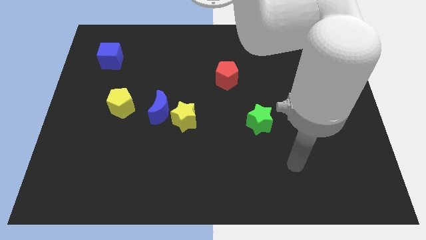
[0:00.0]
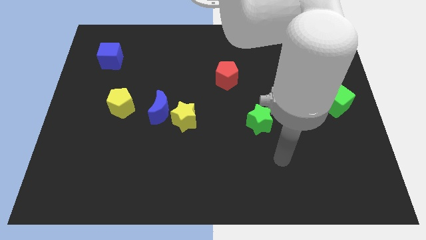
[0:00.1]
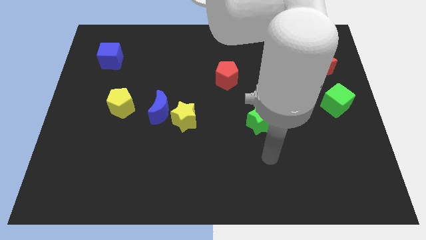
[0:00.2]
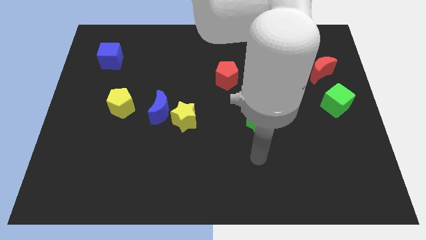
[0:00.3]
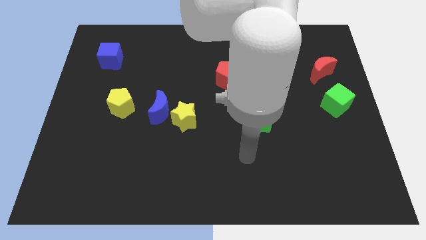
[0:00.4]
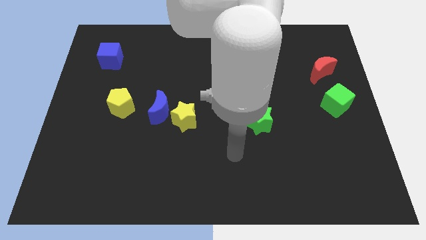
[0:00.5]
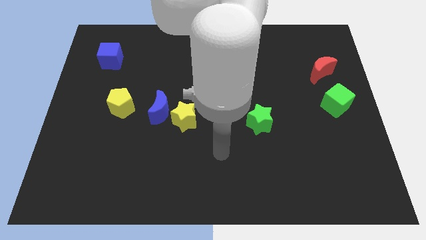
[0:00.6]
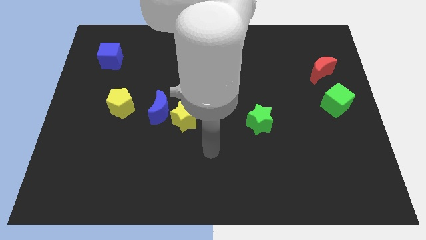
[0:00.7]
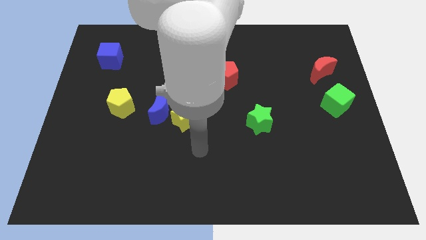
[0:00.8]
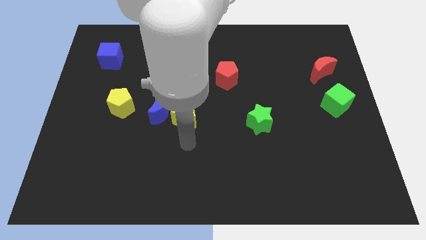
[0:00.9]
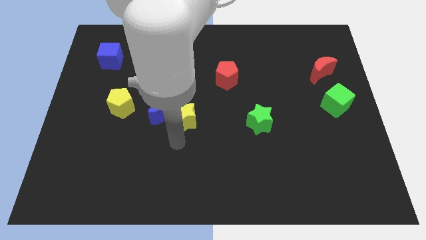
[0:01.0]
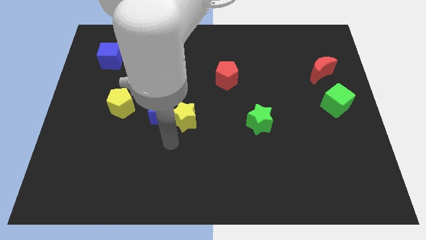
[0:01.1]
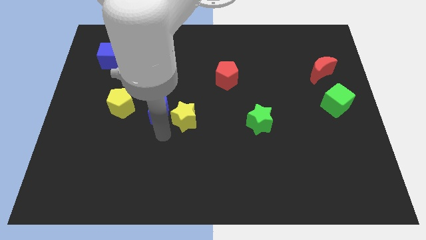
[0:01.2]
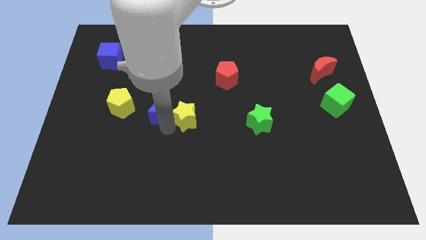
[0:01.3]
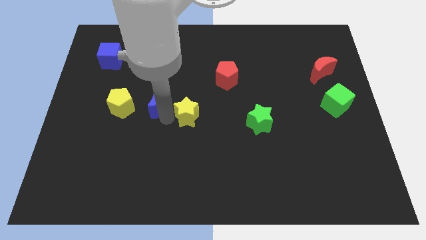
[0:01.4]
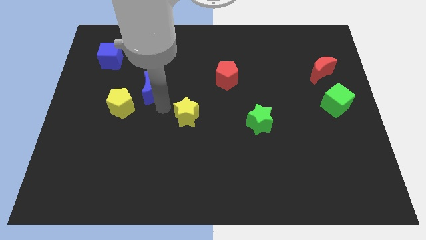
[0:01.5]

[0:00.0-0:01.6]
pull the yellow star apart from the blue moon

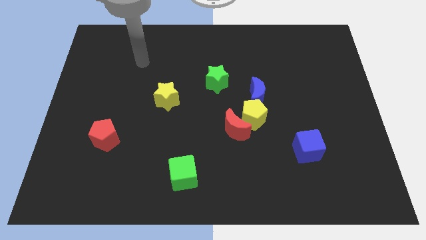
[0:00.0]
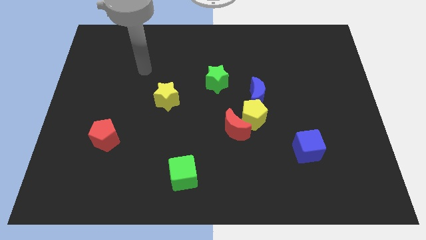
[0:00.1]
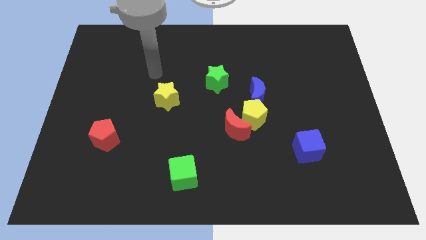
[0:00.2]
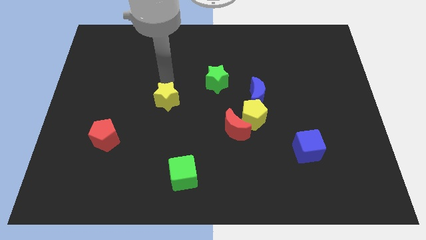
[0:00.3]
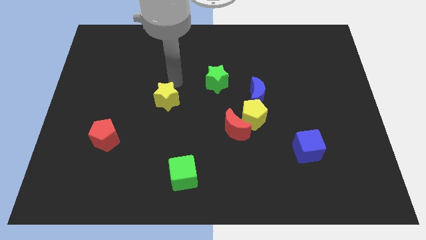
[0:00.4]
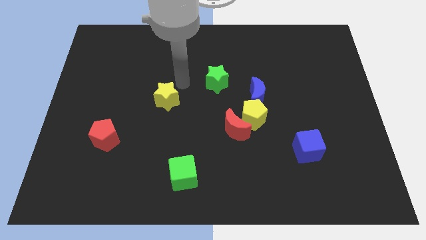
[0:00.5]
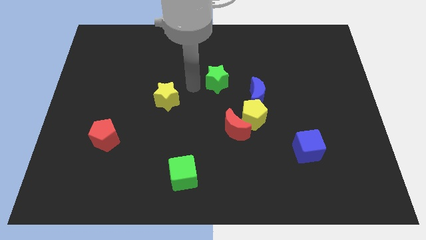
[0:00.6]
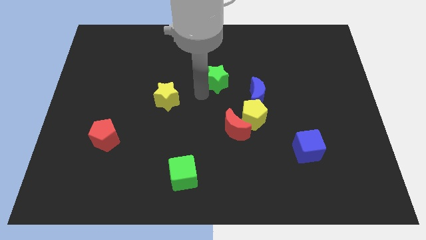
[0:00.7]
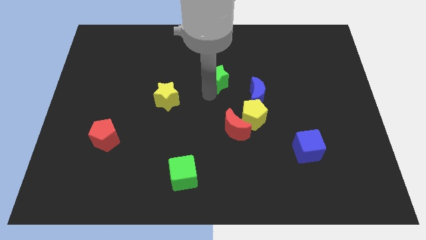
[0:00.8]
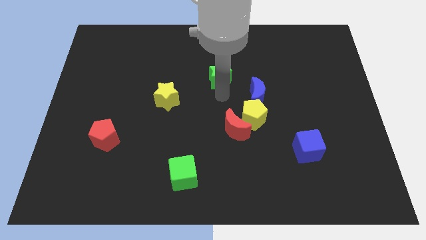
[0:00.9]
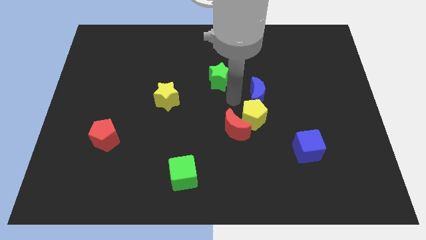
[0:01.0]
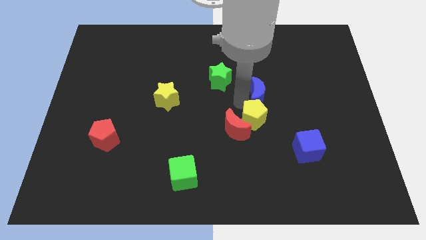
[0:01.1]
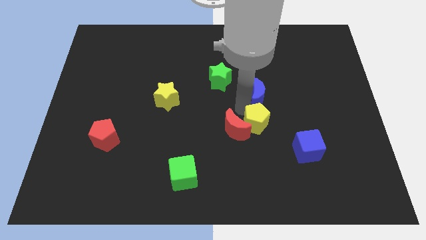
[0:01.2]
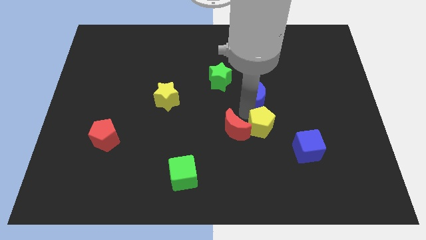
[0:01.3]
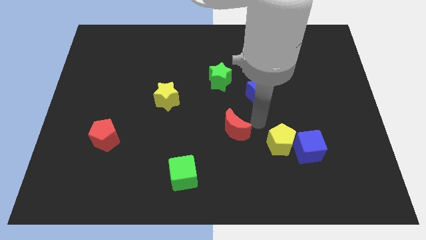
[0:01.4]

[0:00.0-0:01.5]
separate the red moon from the yellow pentagon

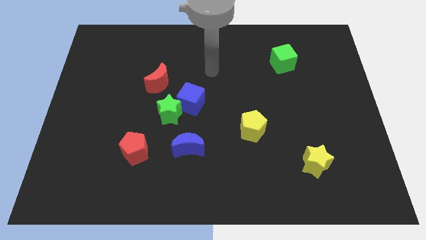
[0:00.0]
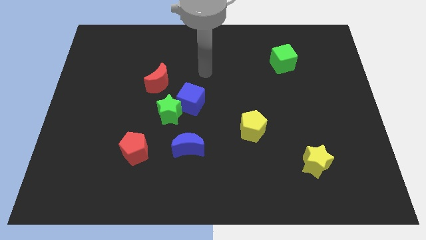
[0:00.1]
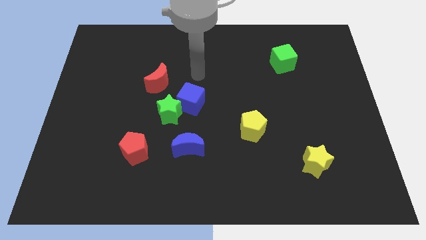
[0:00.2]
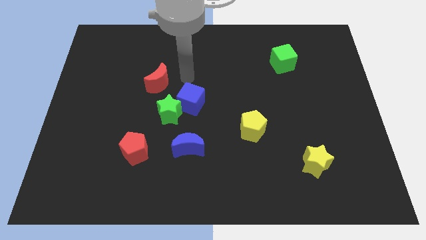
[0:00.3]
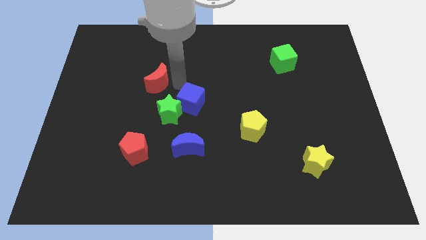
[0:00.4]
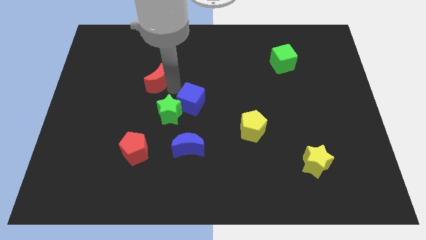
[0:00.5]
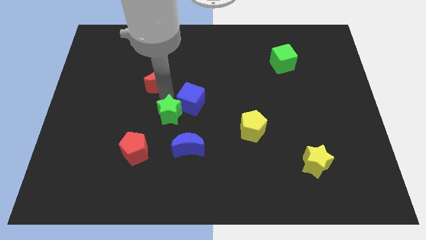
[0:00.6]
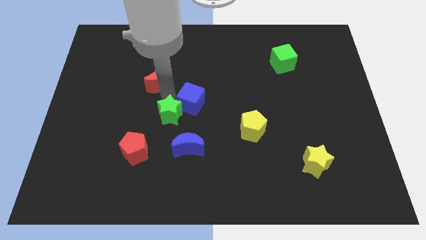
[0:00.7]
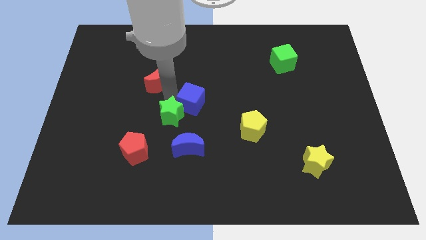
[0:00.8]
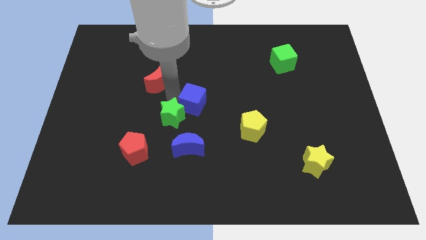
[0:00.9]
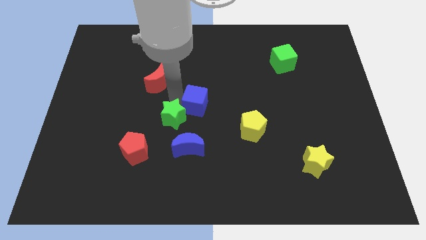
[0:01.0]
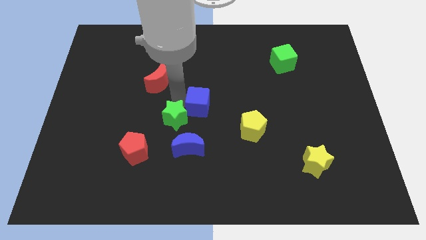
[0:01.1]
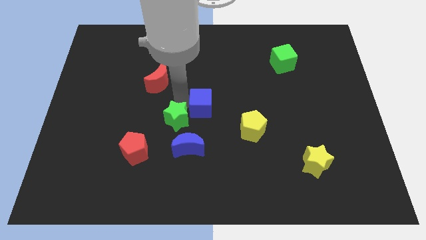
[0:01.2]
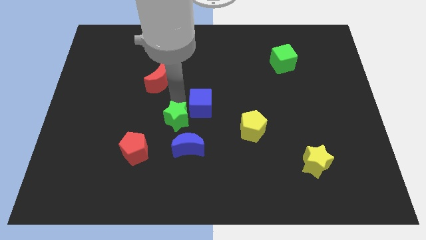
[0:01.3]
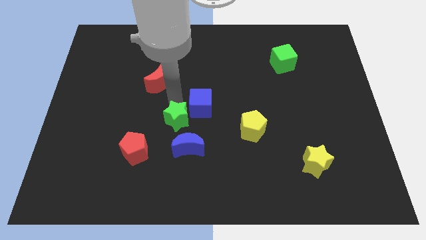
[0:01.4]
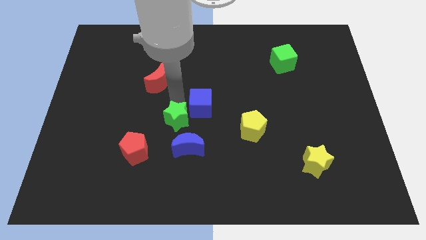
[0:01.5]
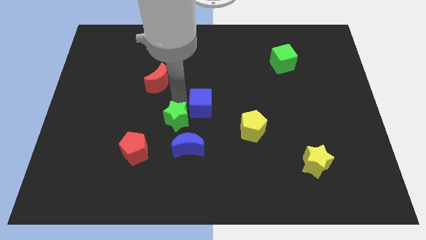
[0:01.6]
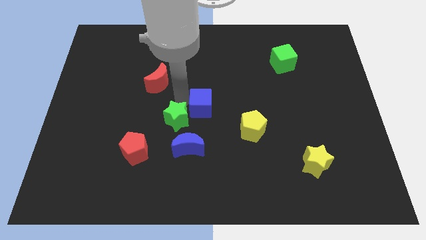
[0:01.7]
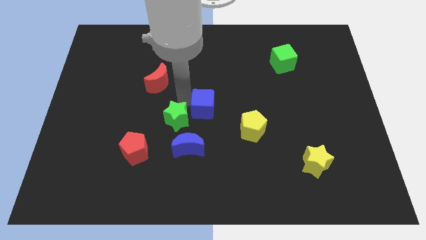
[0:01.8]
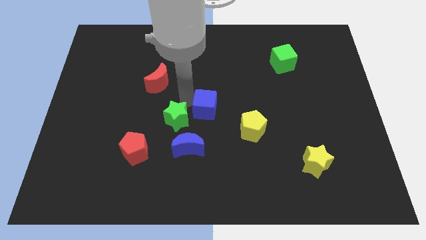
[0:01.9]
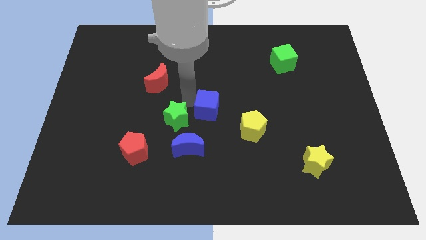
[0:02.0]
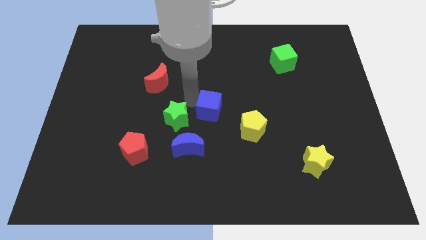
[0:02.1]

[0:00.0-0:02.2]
pull the blue cube apart from the green star and red moon

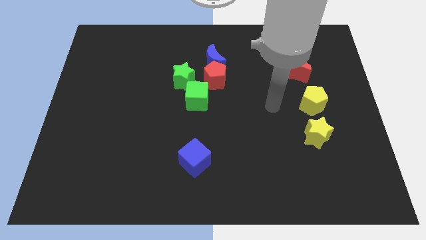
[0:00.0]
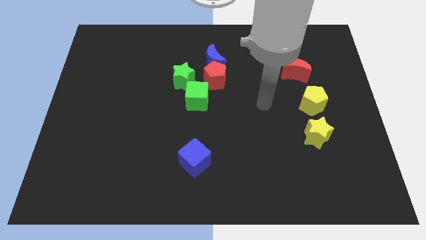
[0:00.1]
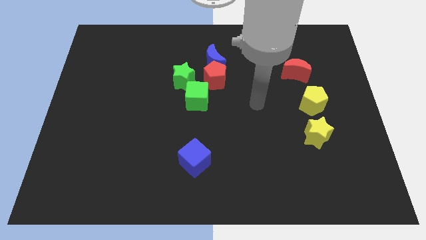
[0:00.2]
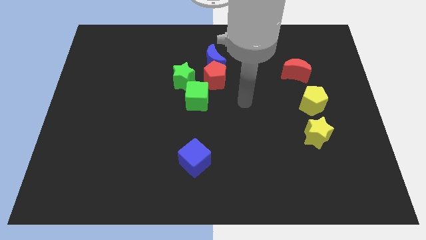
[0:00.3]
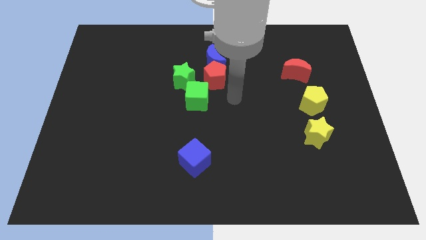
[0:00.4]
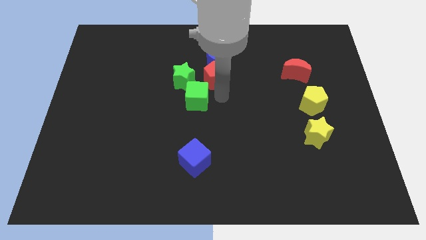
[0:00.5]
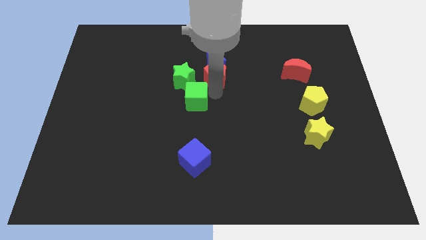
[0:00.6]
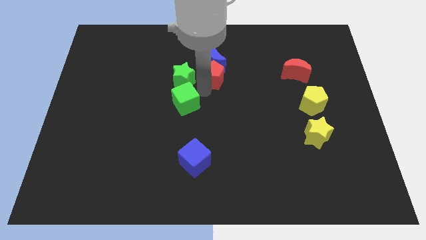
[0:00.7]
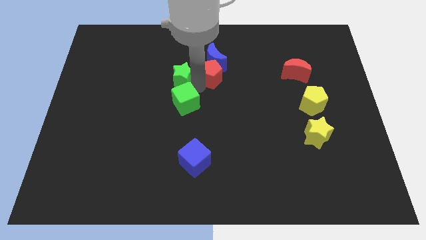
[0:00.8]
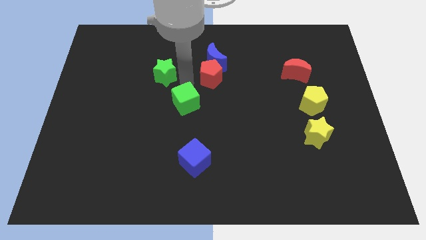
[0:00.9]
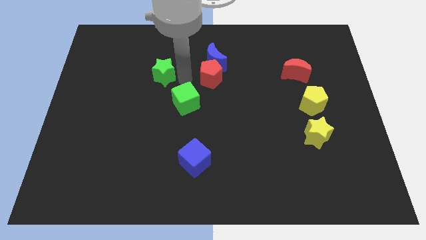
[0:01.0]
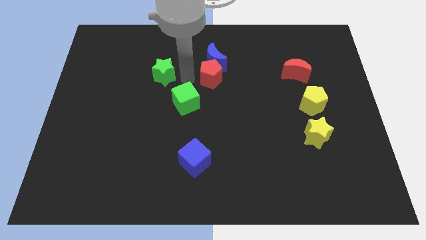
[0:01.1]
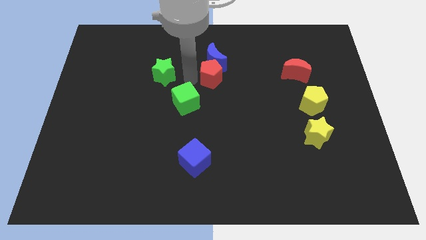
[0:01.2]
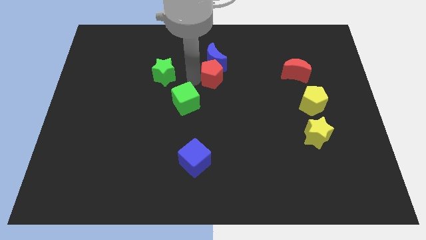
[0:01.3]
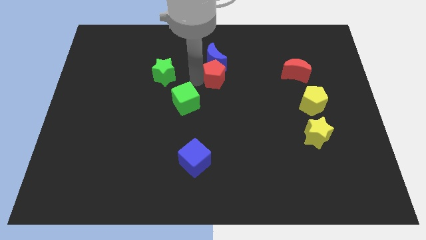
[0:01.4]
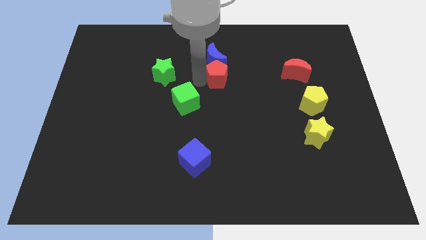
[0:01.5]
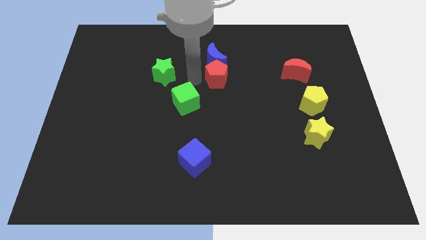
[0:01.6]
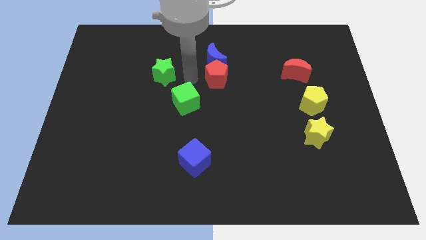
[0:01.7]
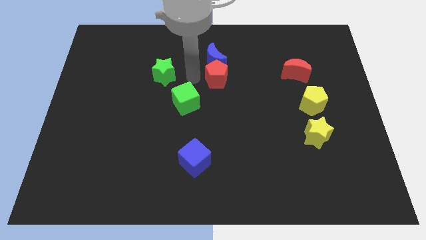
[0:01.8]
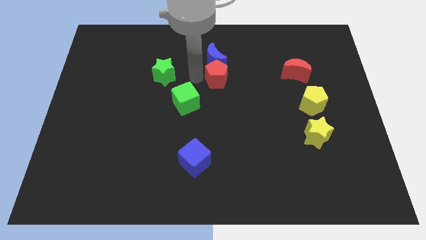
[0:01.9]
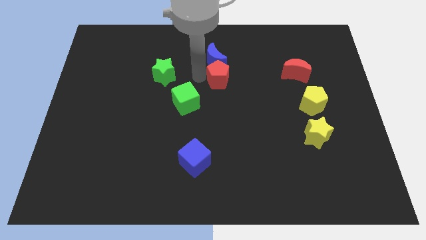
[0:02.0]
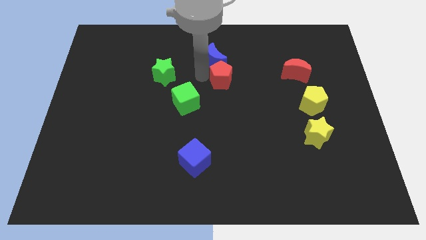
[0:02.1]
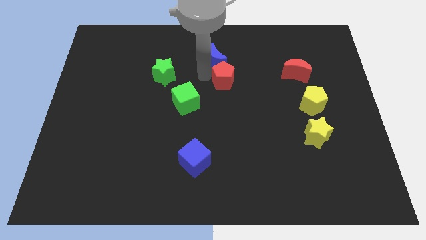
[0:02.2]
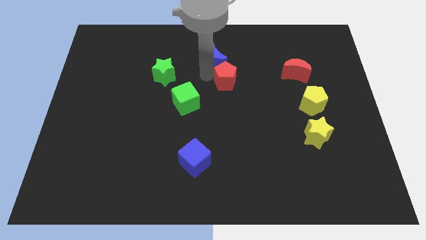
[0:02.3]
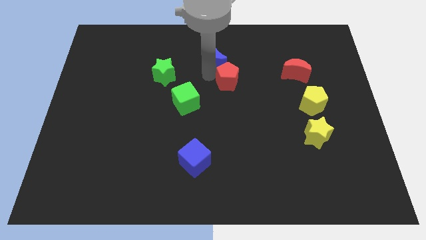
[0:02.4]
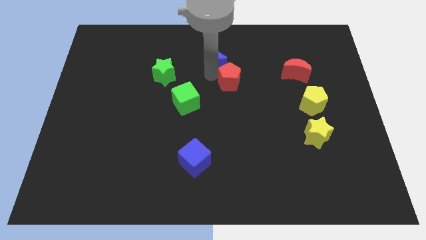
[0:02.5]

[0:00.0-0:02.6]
pull the red pentagon apart from the clump

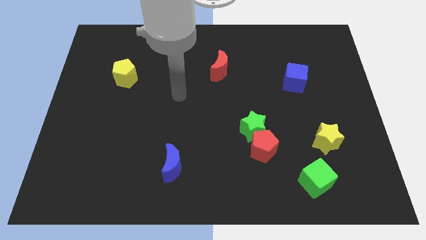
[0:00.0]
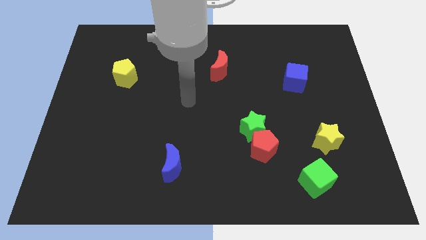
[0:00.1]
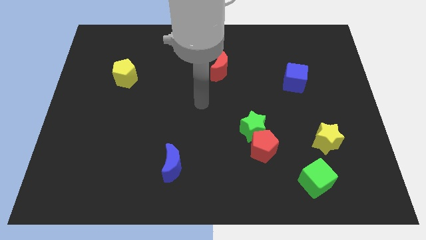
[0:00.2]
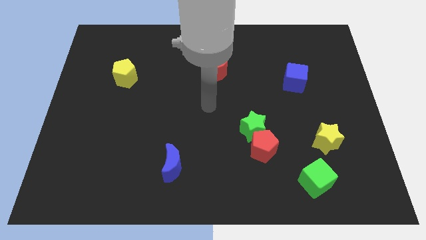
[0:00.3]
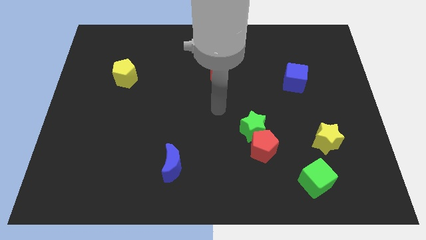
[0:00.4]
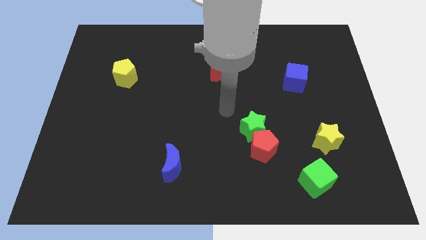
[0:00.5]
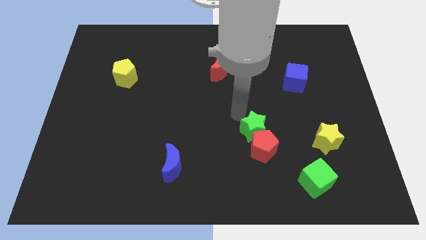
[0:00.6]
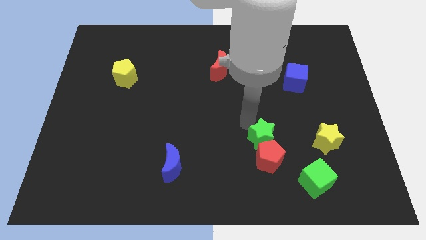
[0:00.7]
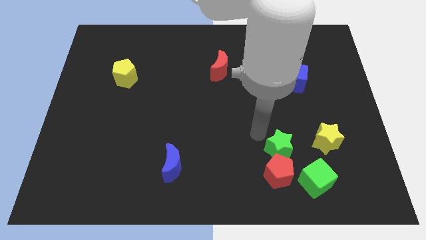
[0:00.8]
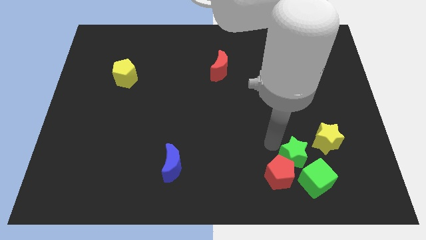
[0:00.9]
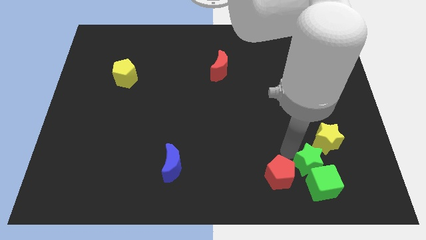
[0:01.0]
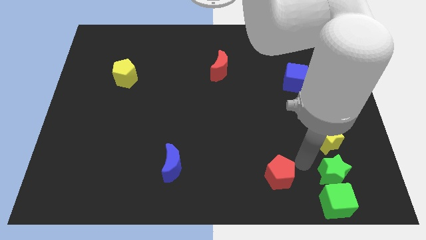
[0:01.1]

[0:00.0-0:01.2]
pull the red pentagon apart from the green star

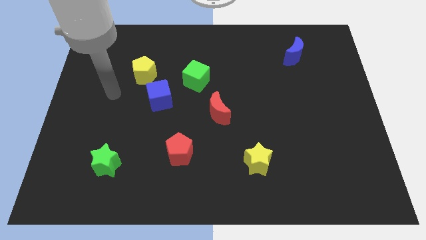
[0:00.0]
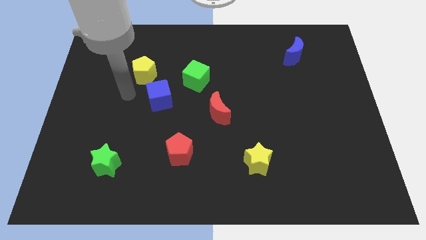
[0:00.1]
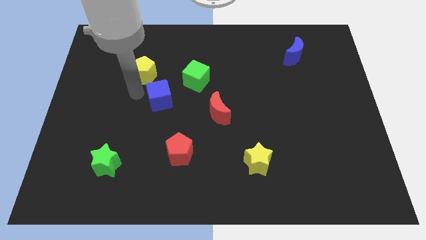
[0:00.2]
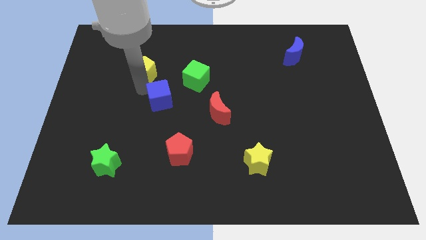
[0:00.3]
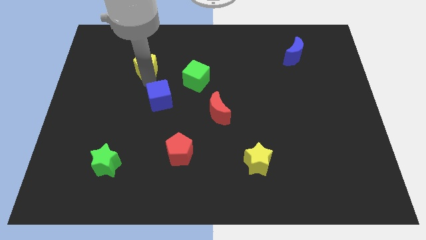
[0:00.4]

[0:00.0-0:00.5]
move the blue cube away from the yellow pentagon
